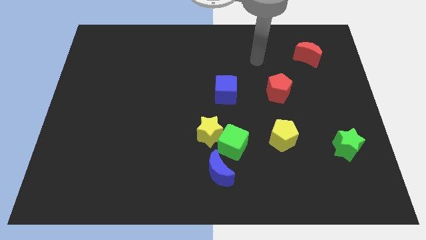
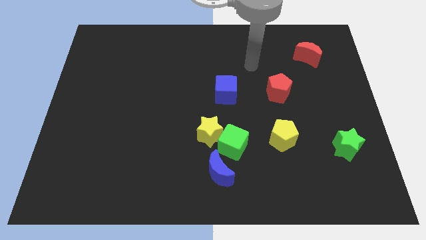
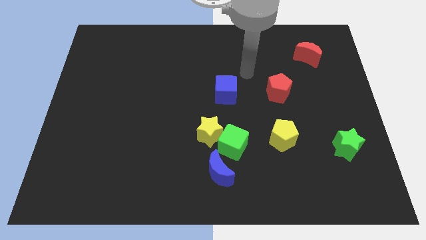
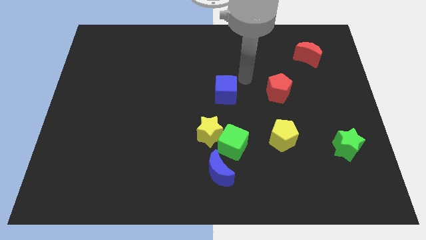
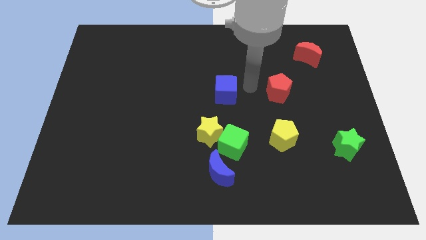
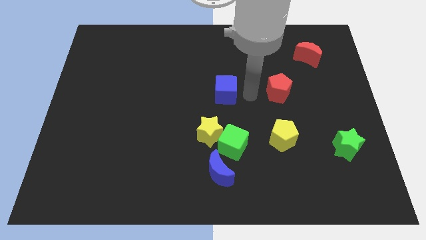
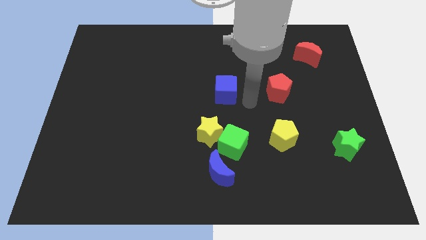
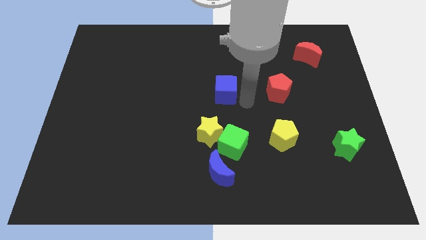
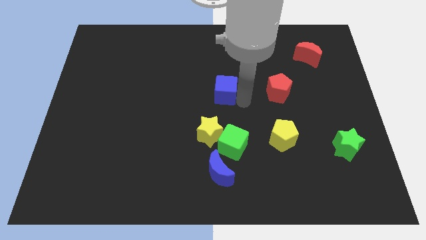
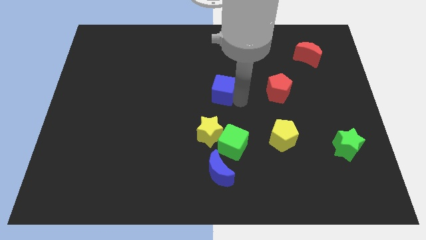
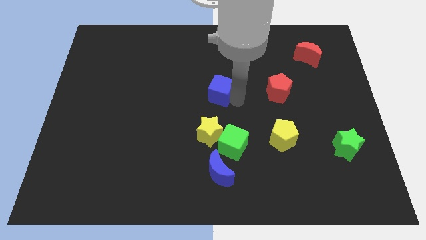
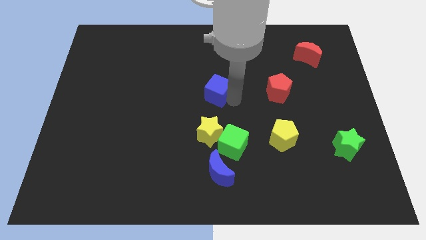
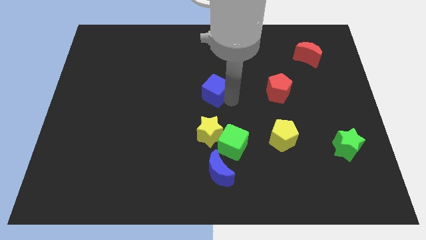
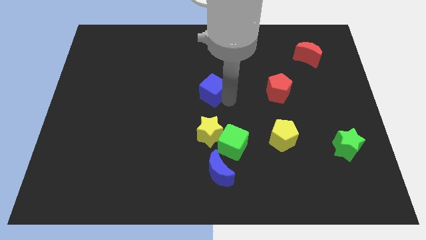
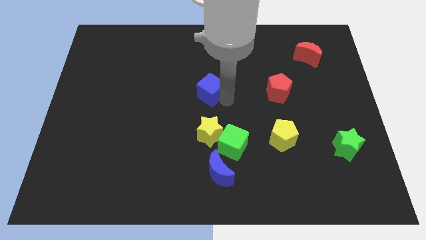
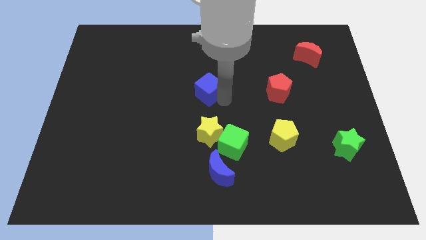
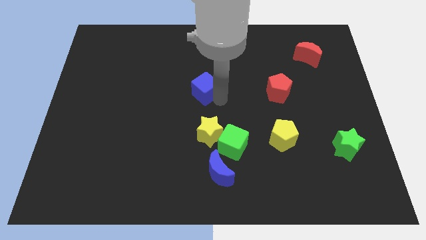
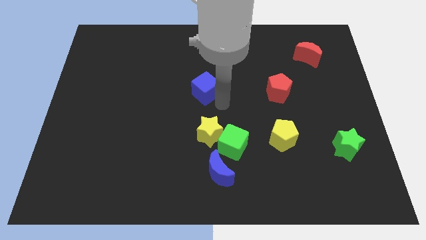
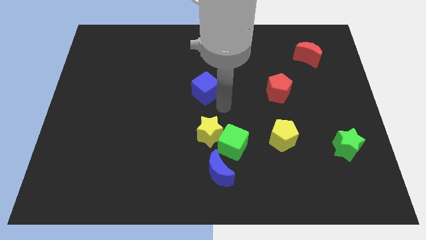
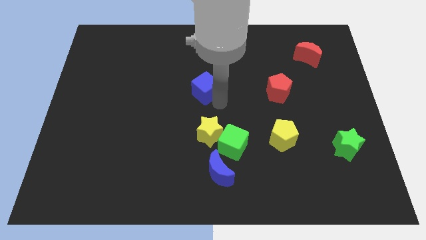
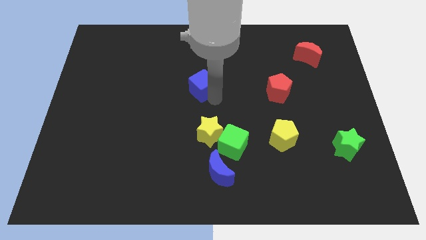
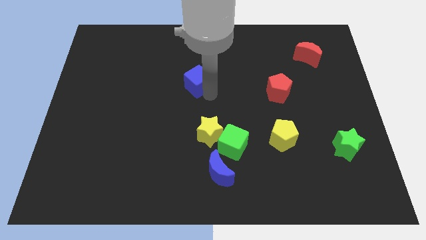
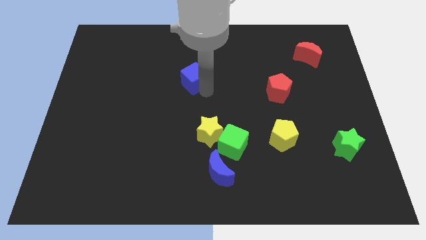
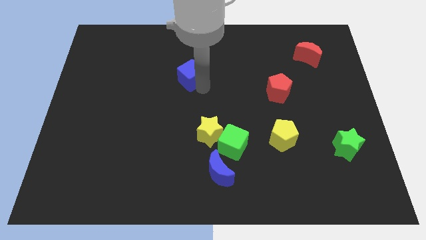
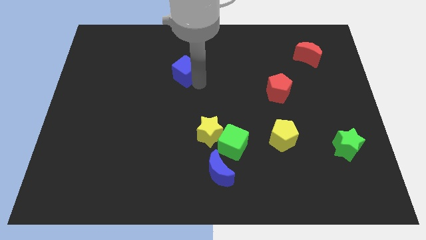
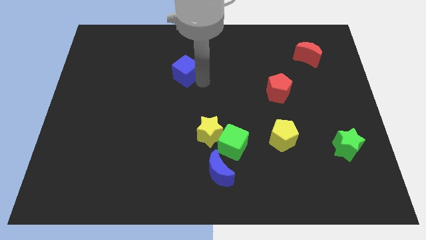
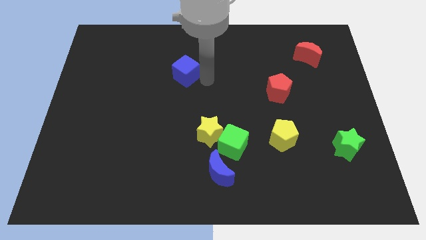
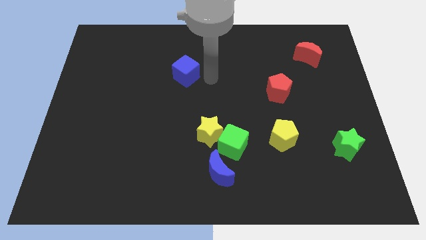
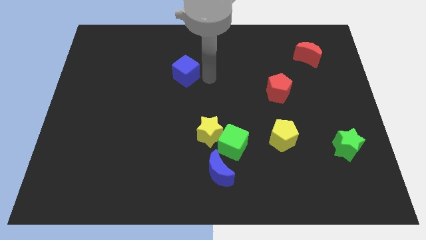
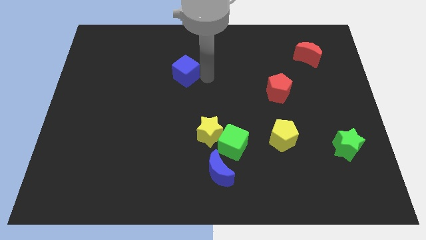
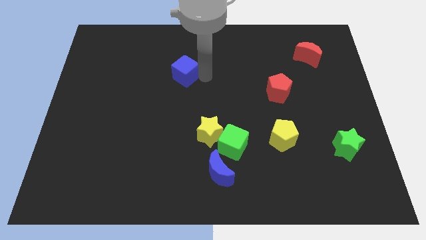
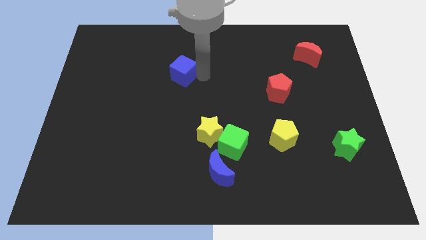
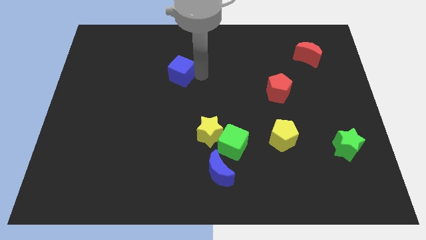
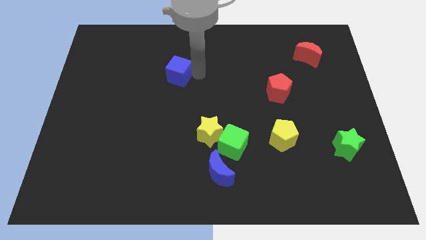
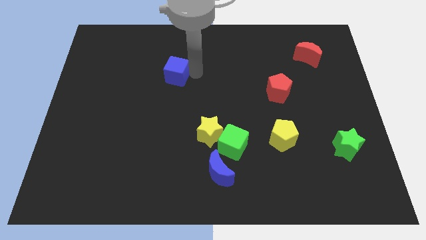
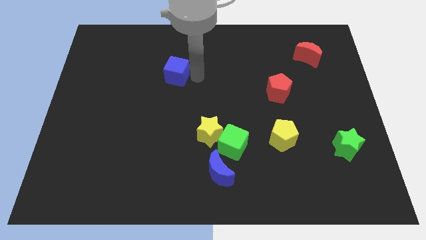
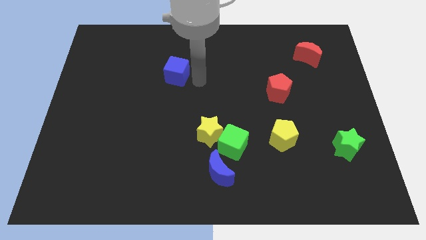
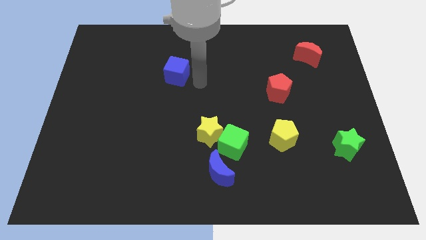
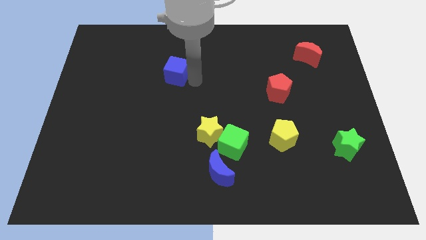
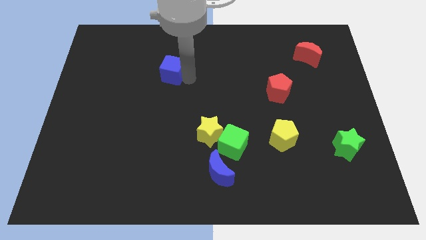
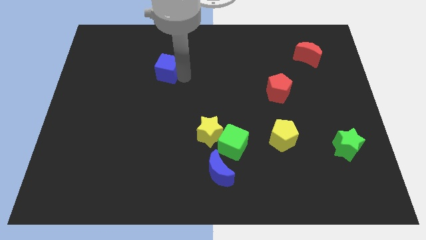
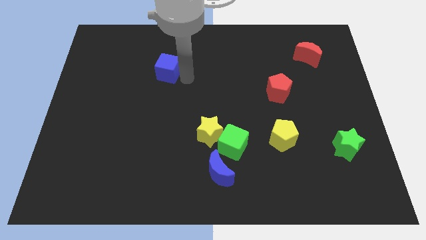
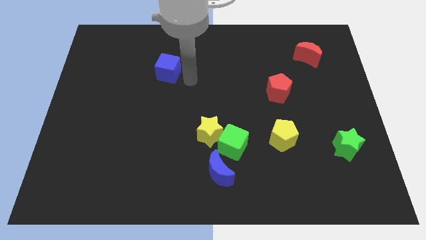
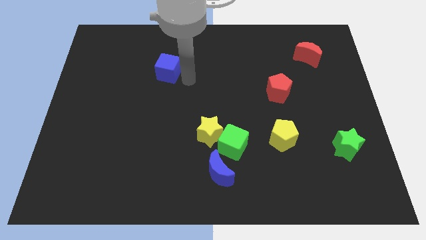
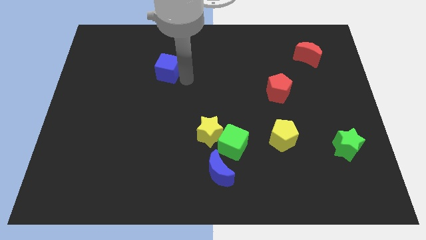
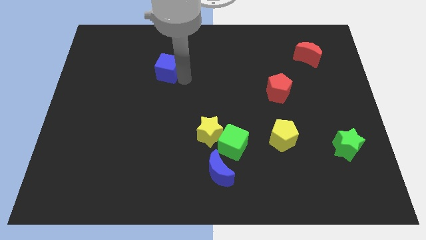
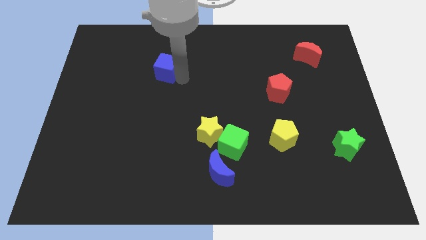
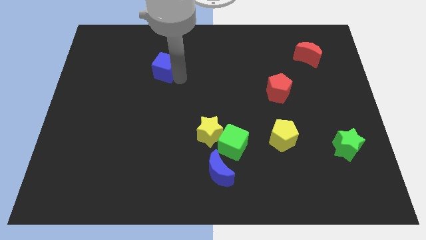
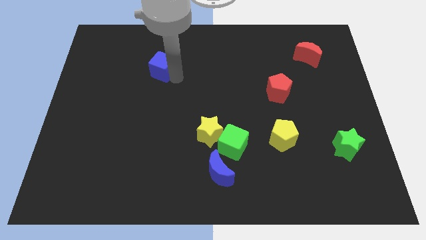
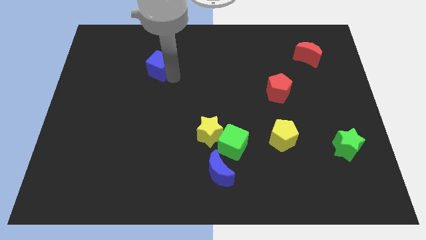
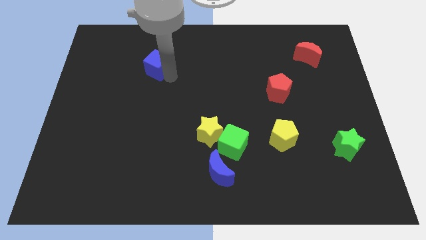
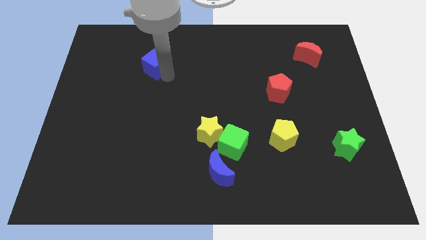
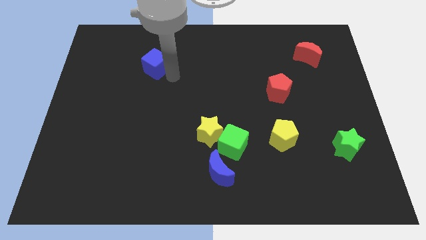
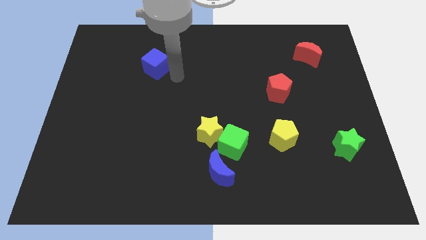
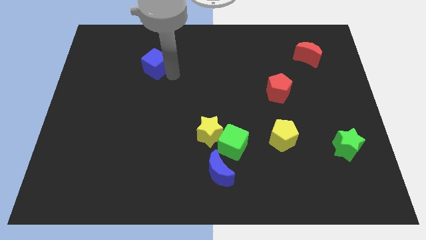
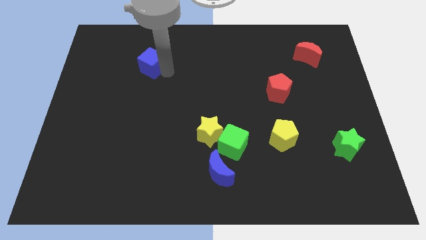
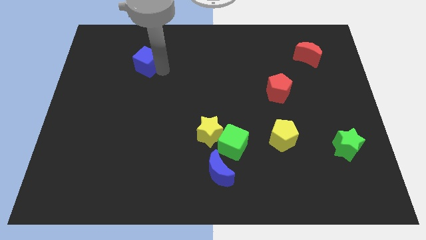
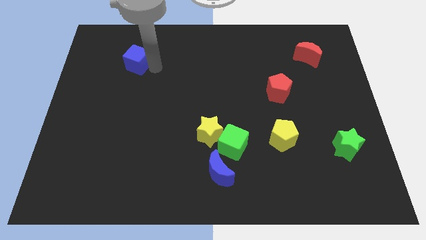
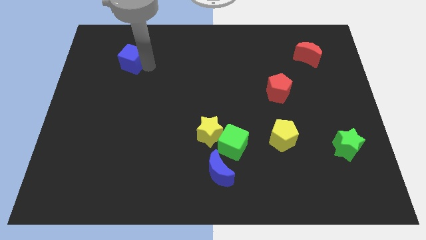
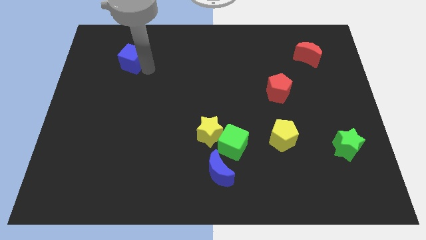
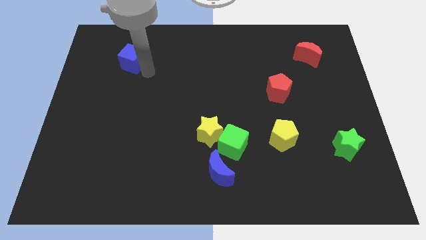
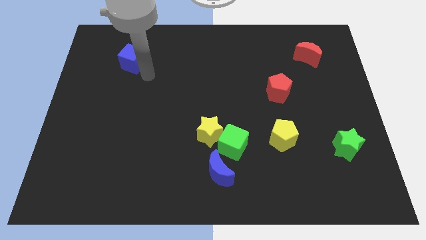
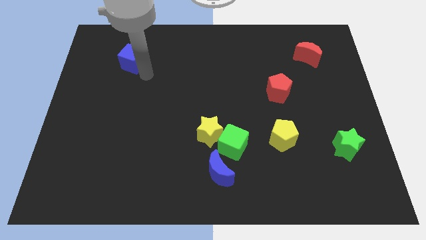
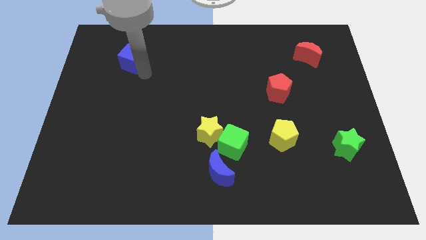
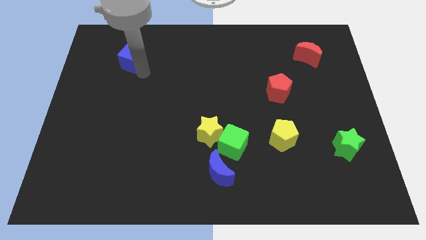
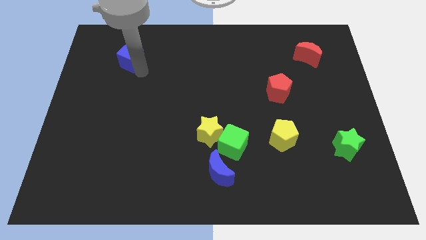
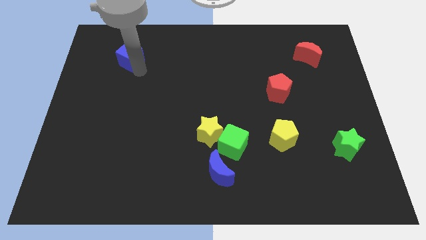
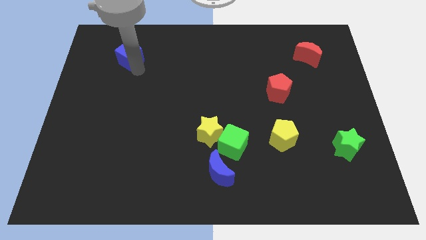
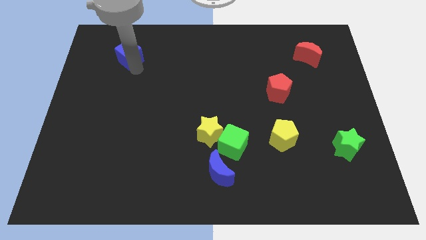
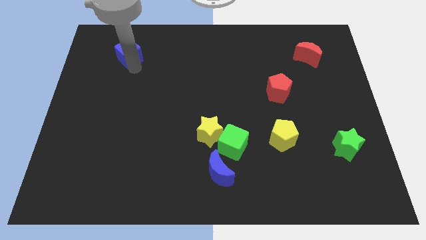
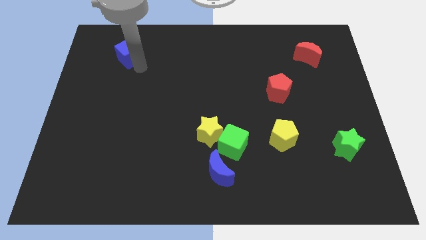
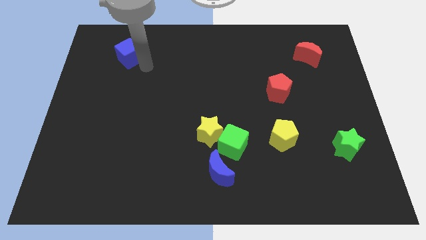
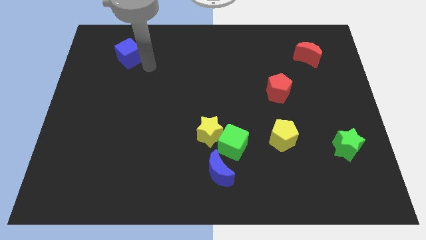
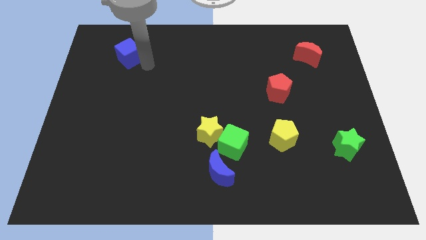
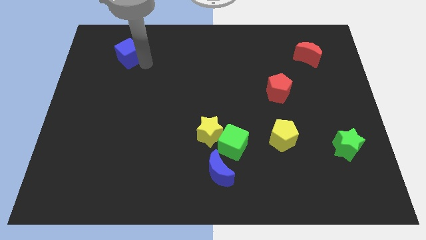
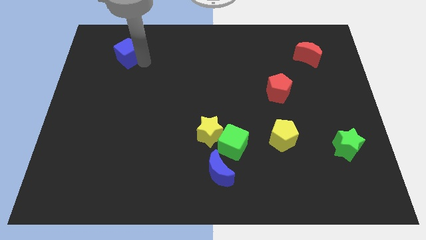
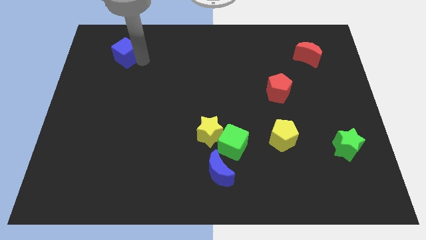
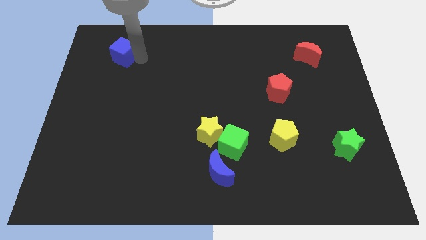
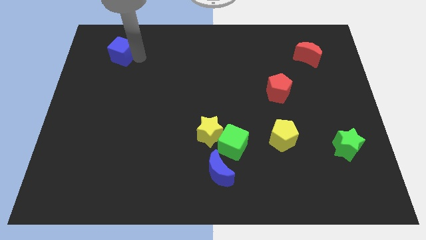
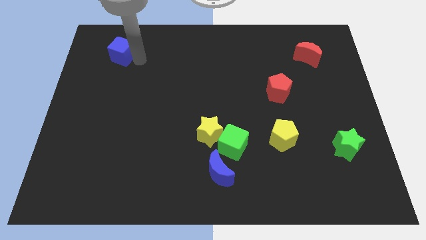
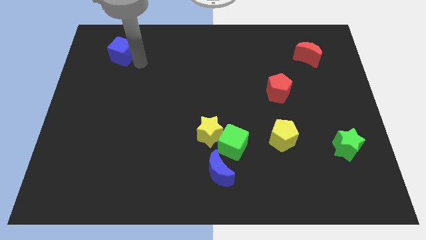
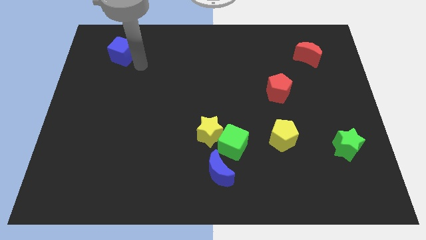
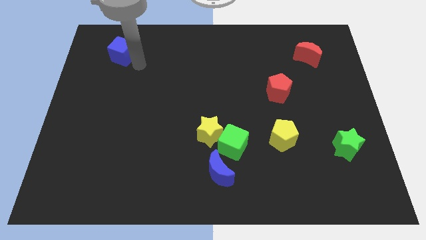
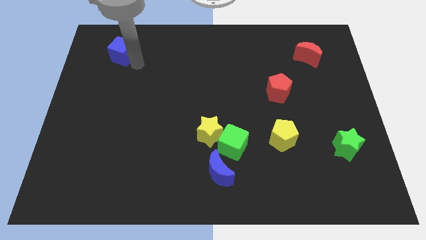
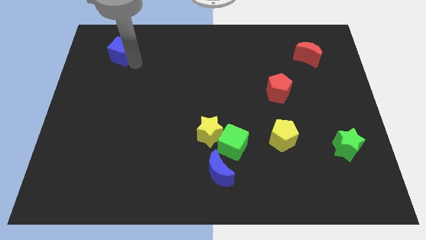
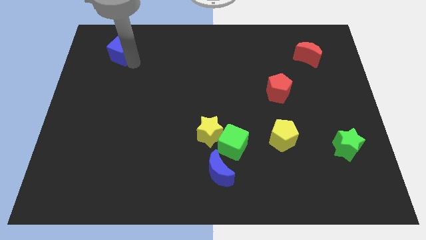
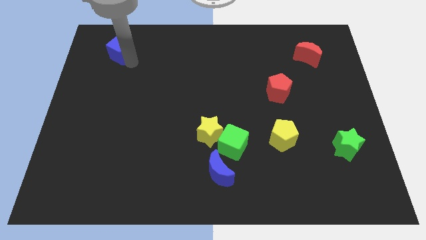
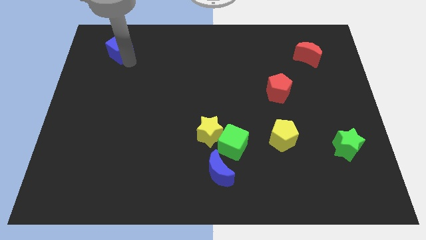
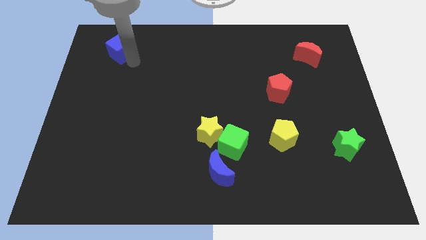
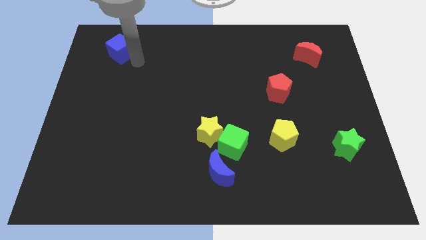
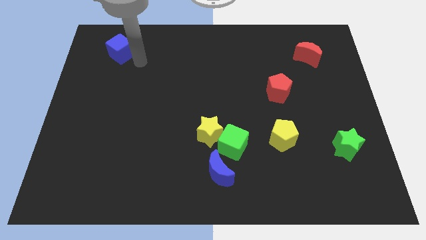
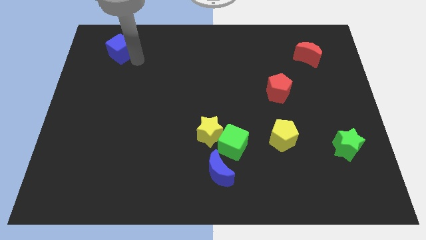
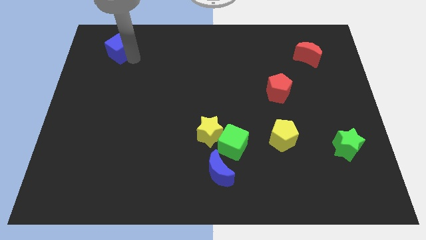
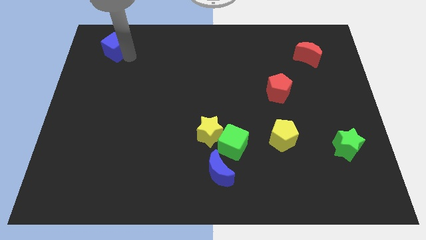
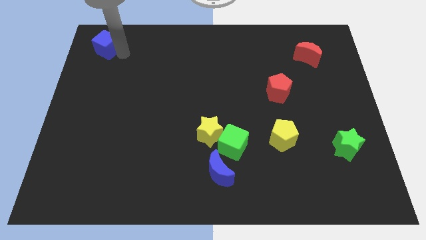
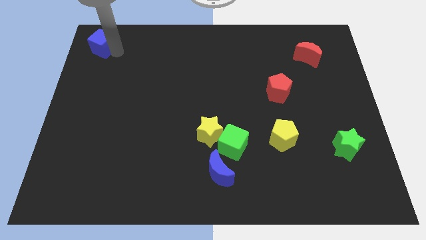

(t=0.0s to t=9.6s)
slide the blue cube to the top left of the board
